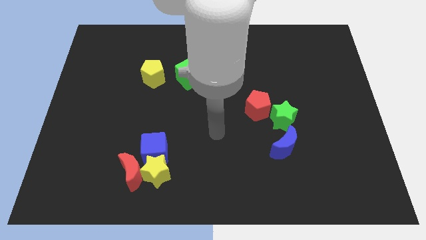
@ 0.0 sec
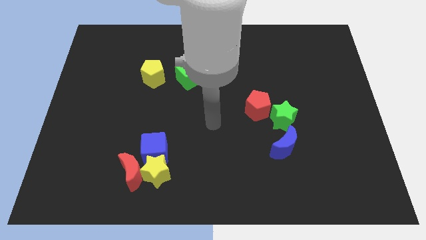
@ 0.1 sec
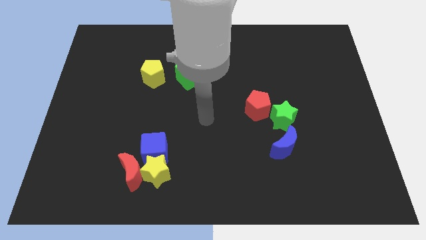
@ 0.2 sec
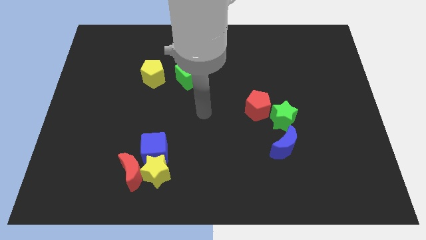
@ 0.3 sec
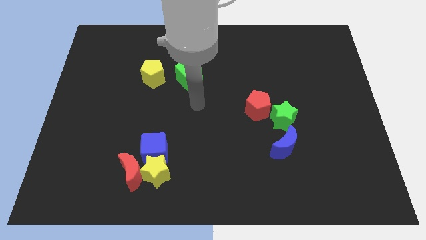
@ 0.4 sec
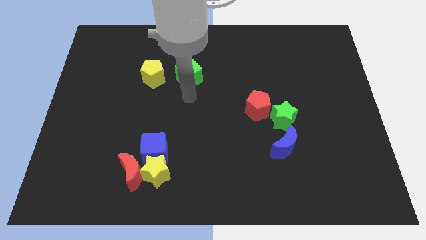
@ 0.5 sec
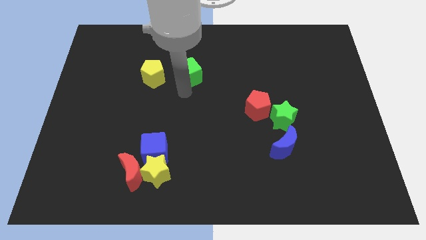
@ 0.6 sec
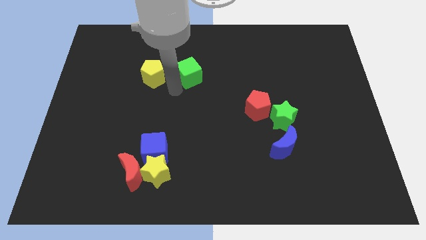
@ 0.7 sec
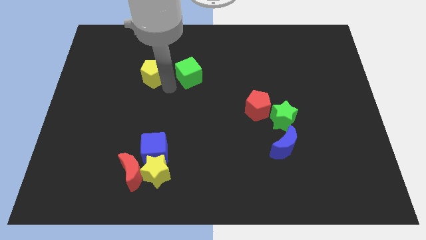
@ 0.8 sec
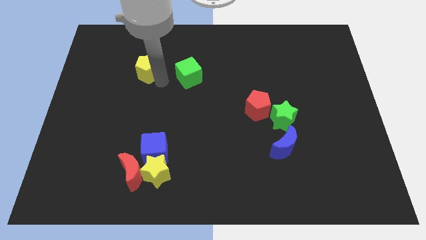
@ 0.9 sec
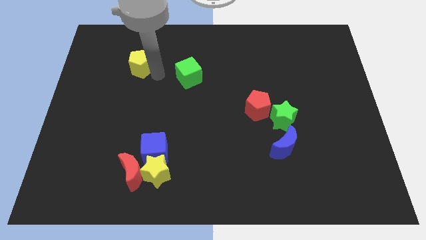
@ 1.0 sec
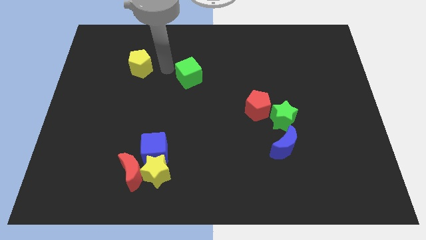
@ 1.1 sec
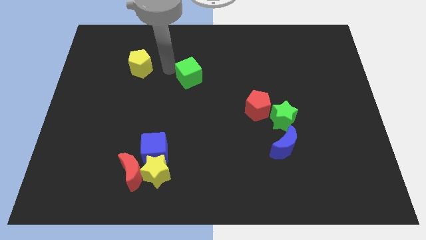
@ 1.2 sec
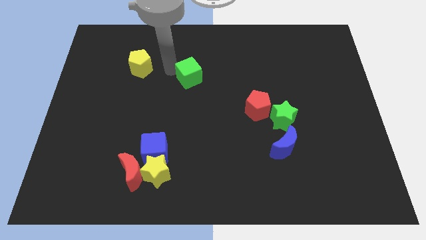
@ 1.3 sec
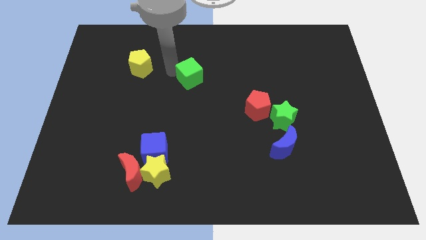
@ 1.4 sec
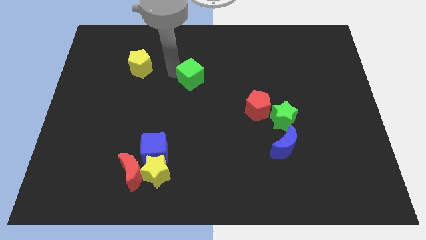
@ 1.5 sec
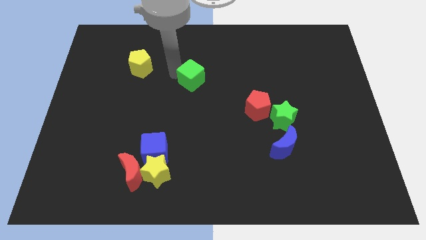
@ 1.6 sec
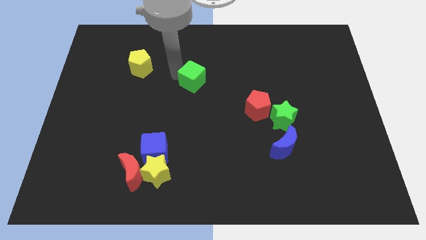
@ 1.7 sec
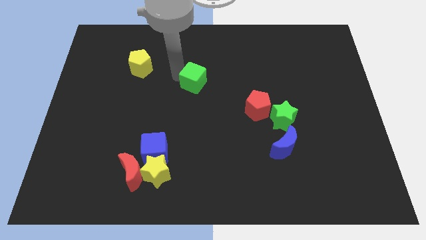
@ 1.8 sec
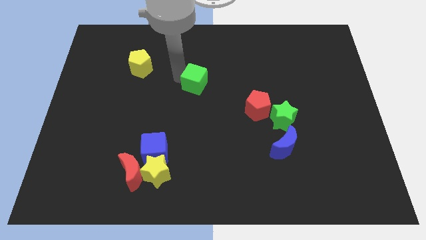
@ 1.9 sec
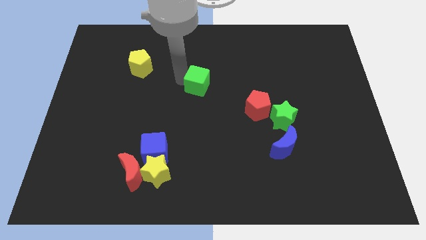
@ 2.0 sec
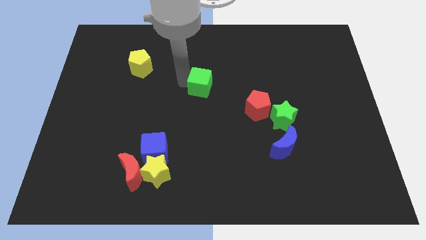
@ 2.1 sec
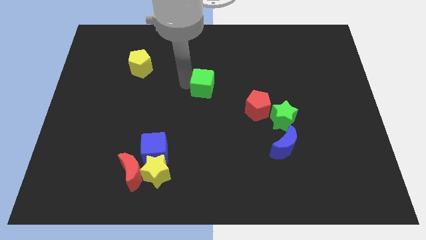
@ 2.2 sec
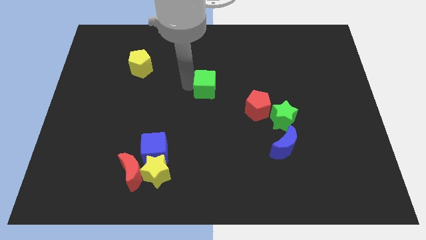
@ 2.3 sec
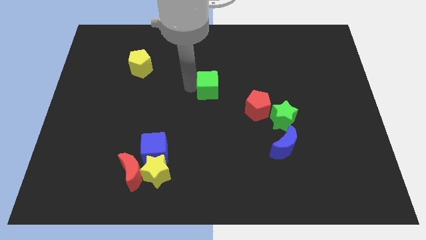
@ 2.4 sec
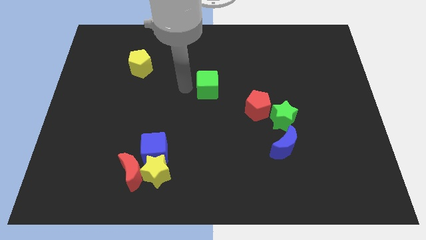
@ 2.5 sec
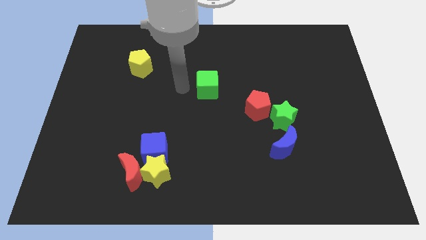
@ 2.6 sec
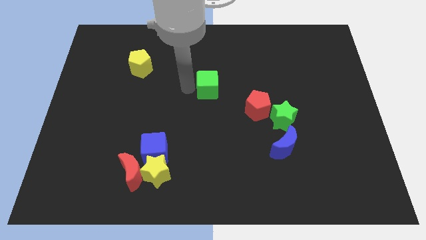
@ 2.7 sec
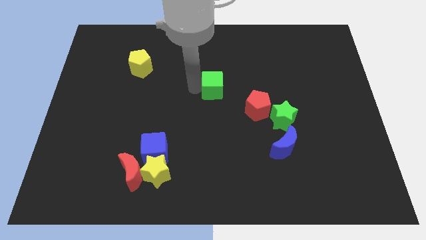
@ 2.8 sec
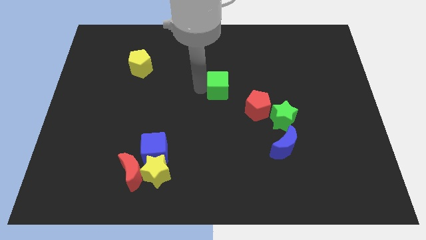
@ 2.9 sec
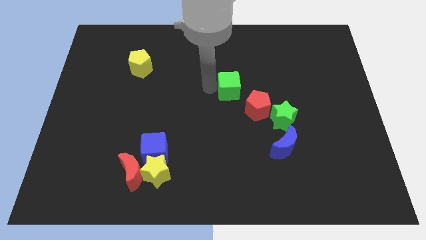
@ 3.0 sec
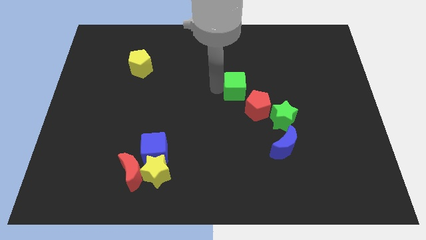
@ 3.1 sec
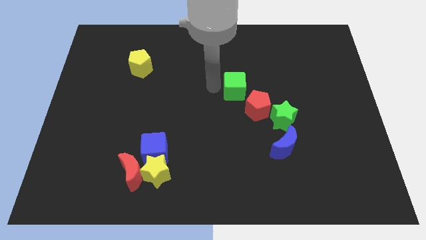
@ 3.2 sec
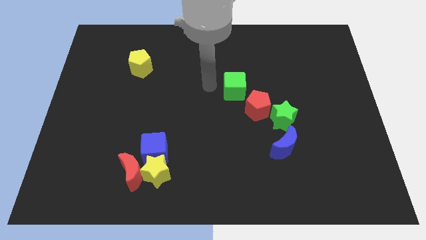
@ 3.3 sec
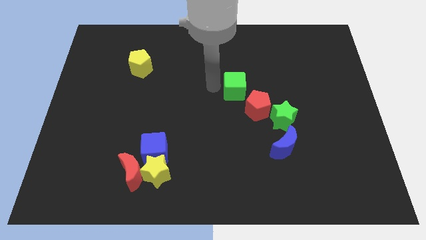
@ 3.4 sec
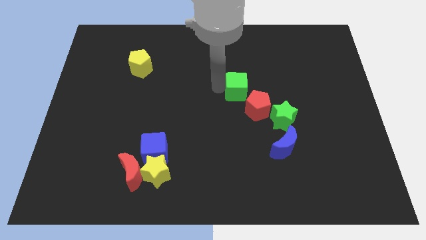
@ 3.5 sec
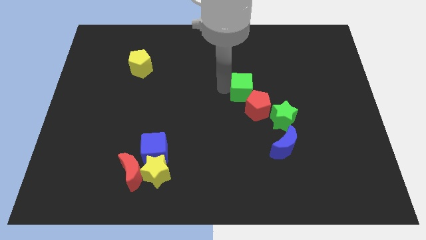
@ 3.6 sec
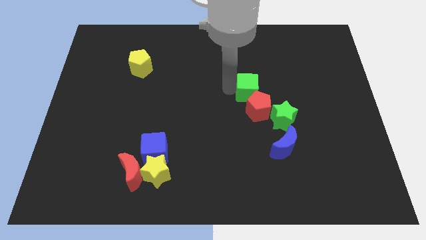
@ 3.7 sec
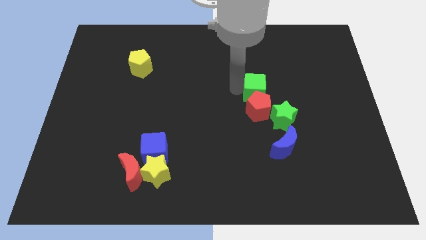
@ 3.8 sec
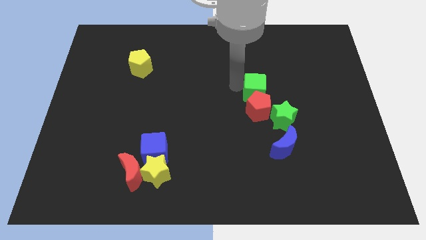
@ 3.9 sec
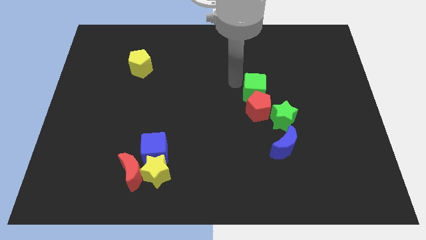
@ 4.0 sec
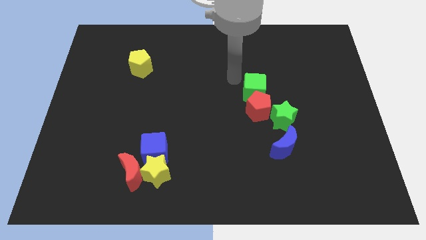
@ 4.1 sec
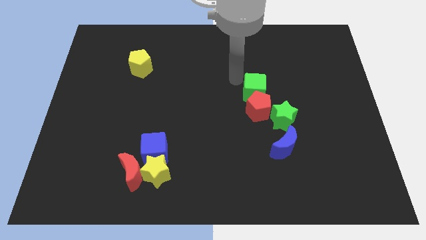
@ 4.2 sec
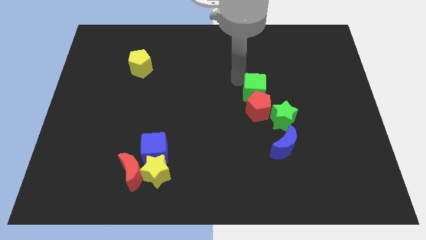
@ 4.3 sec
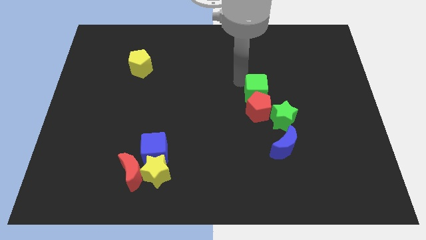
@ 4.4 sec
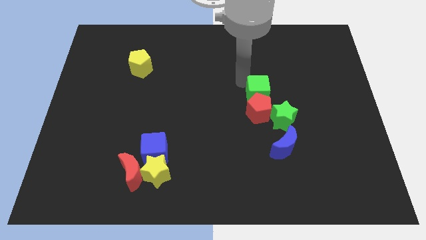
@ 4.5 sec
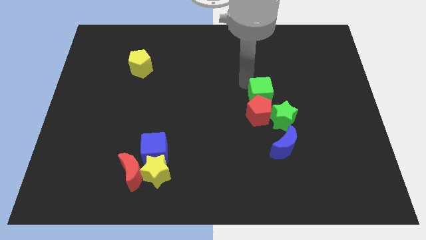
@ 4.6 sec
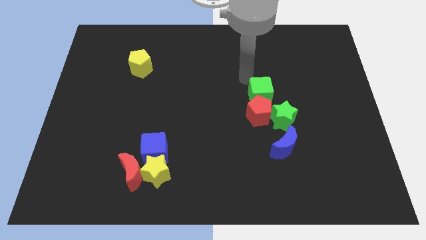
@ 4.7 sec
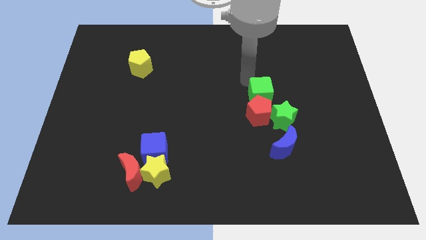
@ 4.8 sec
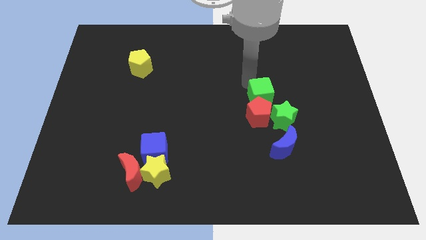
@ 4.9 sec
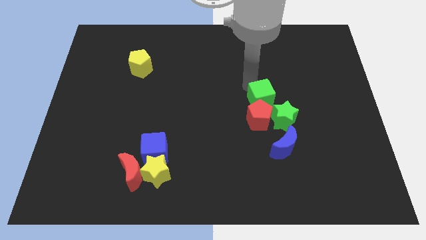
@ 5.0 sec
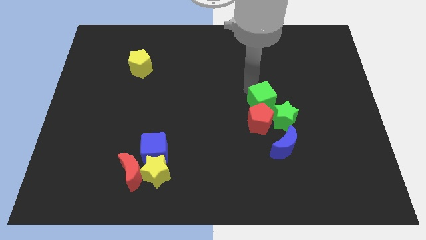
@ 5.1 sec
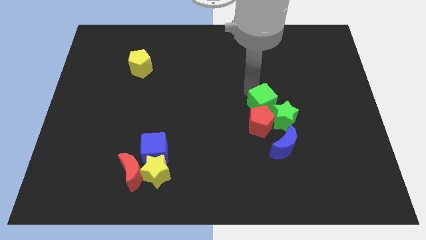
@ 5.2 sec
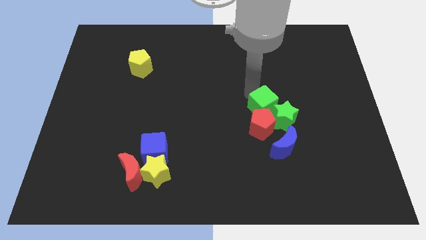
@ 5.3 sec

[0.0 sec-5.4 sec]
slide the green cube to the green star

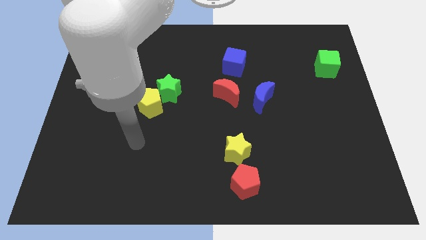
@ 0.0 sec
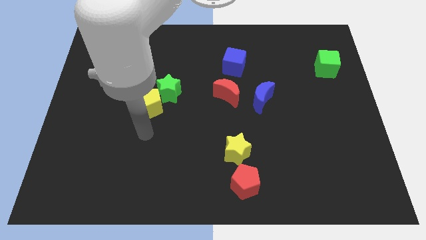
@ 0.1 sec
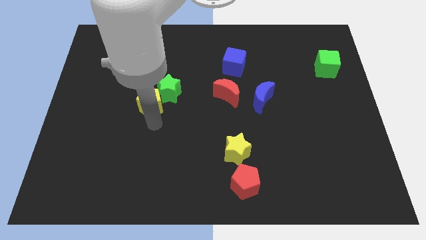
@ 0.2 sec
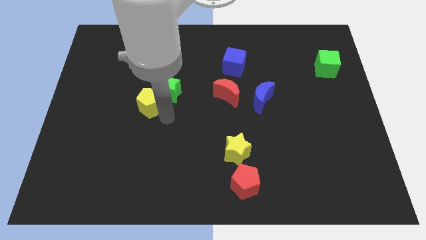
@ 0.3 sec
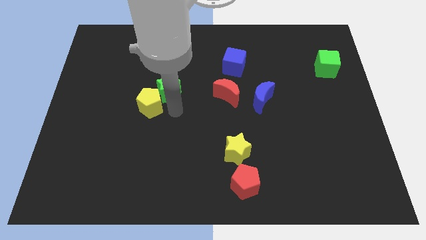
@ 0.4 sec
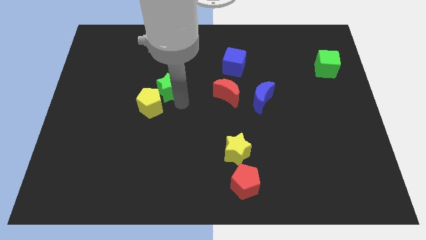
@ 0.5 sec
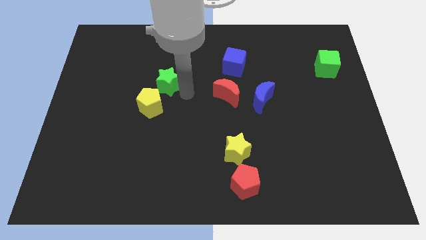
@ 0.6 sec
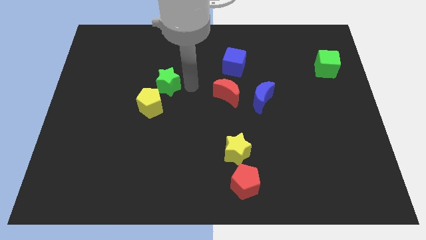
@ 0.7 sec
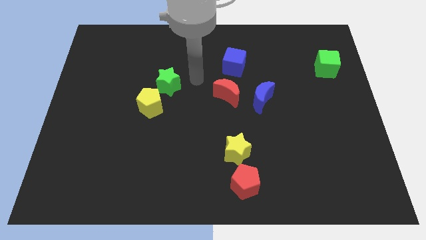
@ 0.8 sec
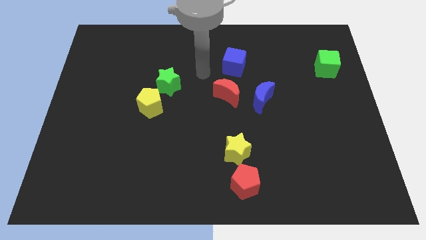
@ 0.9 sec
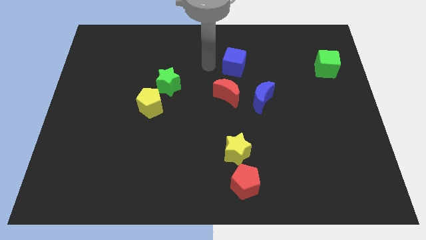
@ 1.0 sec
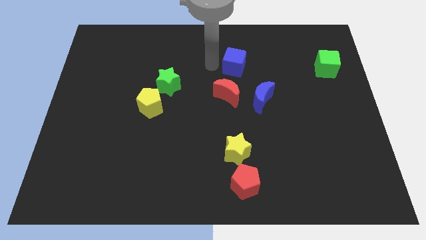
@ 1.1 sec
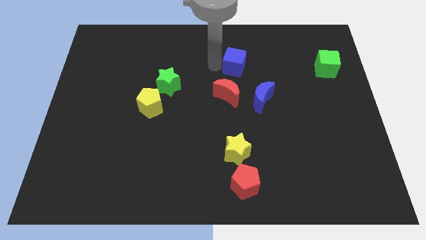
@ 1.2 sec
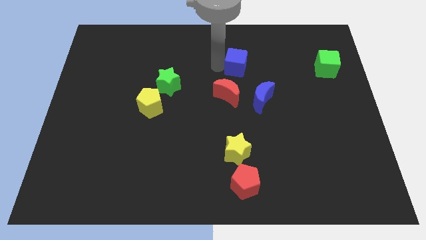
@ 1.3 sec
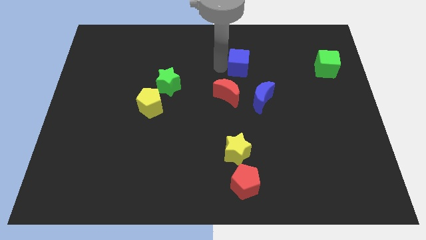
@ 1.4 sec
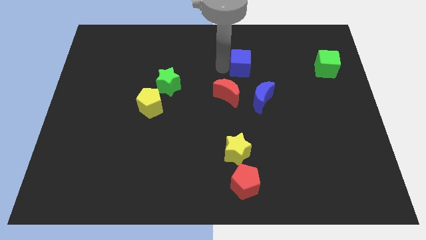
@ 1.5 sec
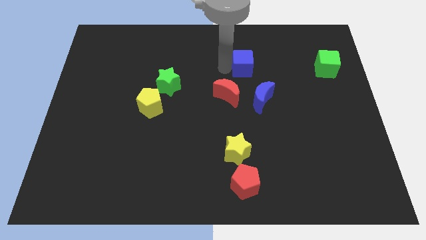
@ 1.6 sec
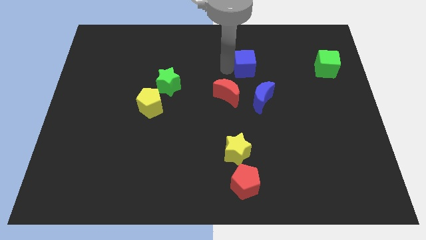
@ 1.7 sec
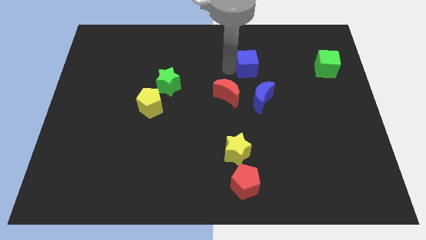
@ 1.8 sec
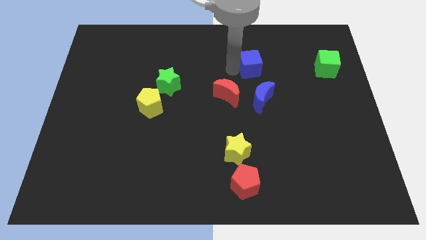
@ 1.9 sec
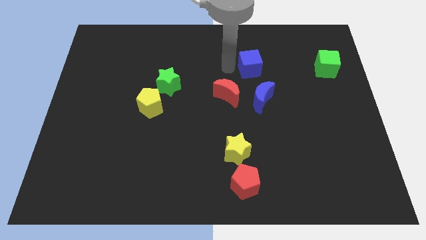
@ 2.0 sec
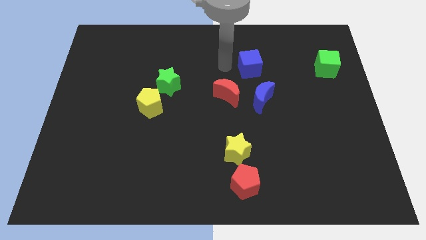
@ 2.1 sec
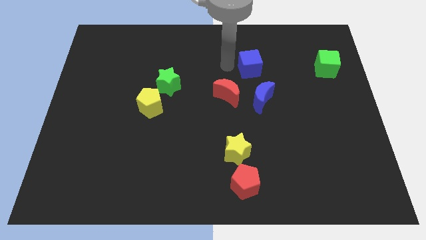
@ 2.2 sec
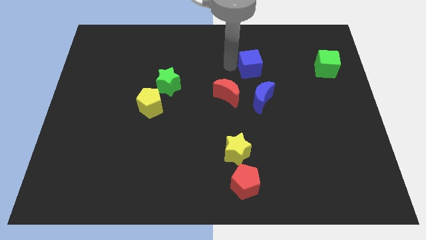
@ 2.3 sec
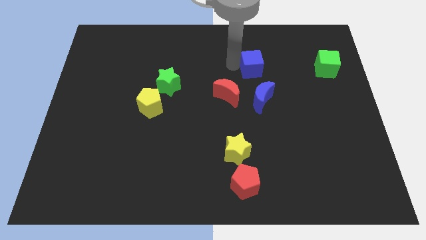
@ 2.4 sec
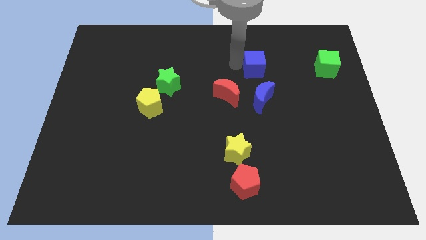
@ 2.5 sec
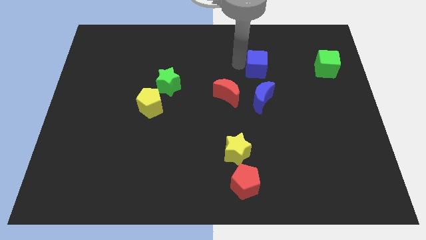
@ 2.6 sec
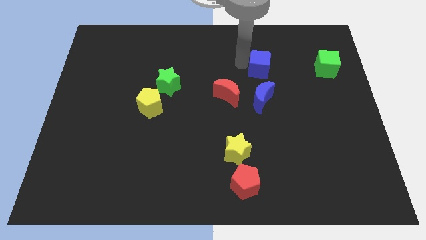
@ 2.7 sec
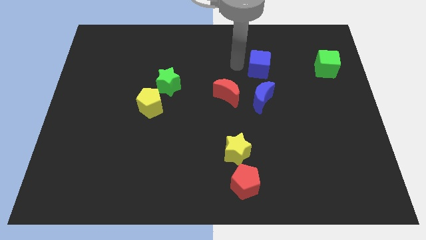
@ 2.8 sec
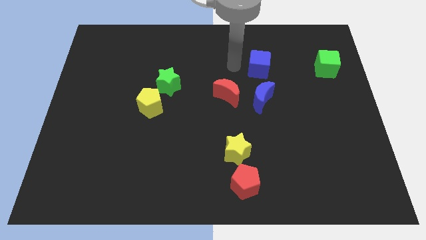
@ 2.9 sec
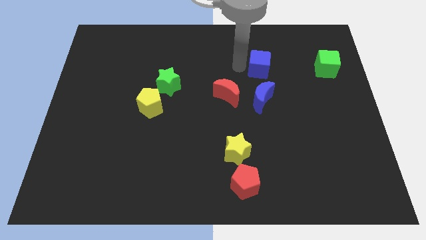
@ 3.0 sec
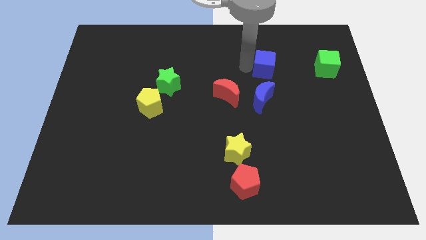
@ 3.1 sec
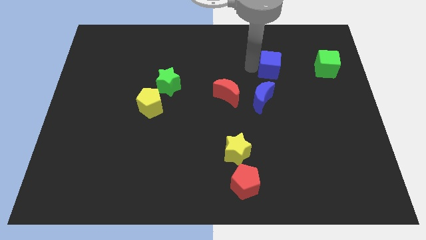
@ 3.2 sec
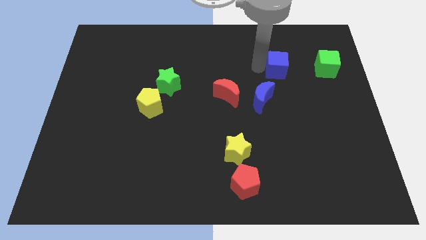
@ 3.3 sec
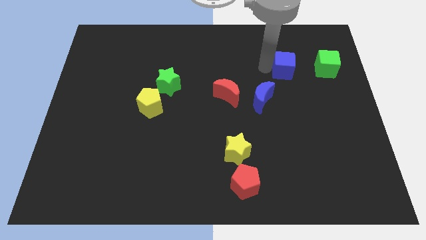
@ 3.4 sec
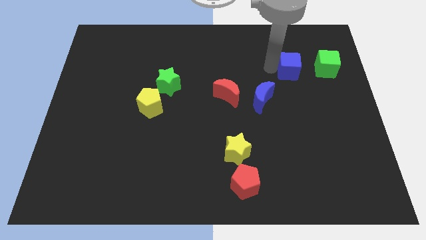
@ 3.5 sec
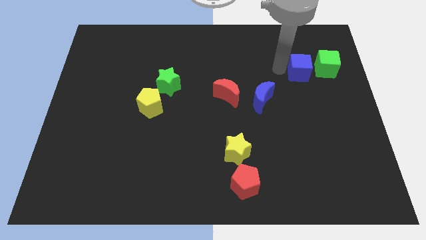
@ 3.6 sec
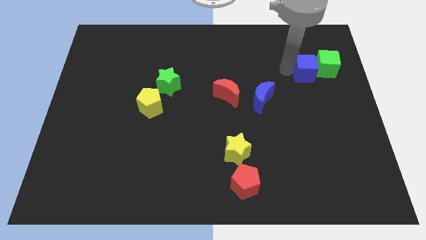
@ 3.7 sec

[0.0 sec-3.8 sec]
slide the blue cube next to the green cube
